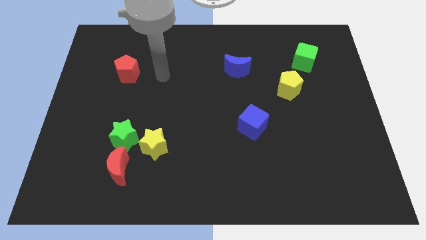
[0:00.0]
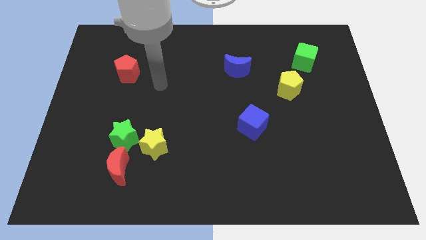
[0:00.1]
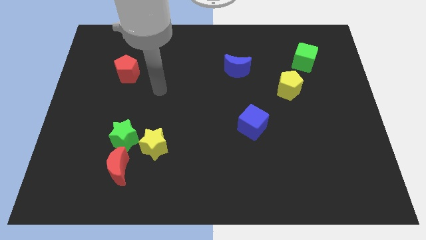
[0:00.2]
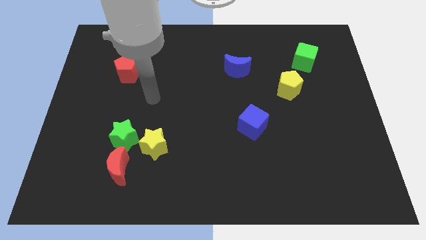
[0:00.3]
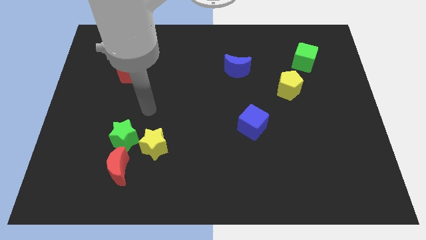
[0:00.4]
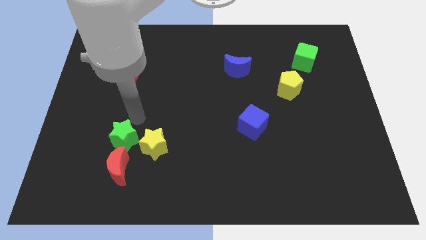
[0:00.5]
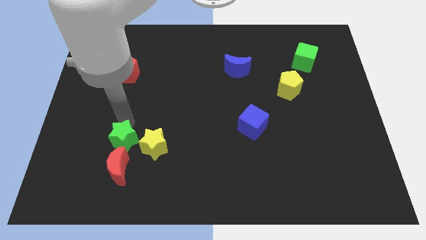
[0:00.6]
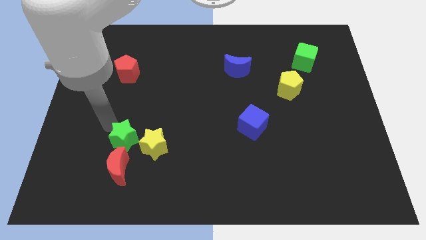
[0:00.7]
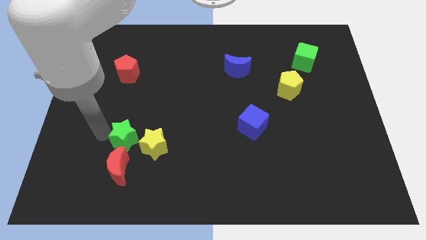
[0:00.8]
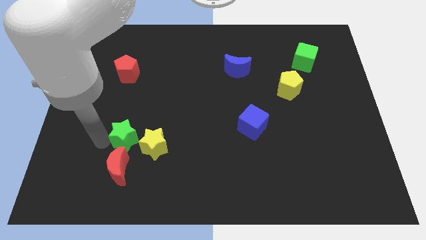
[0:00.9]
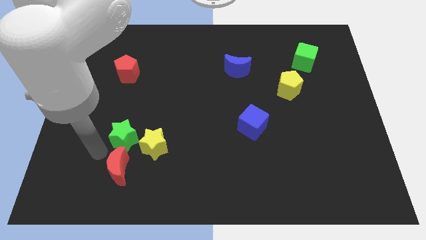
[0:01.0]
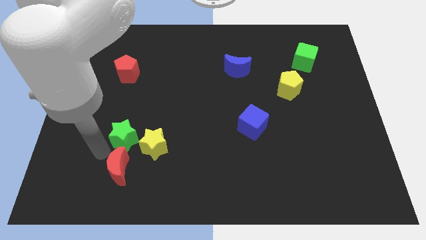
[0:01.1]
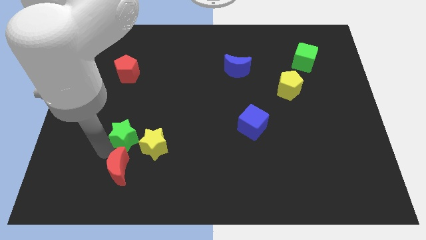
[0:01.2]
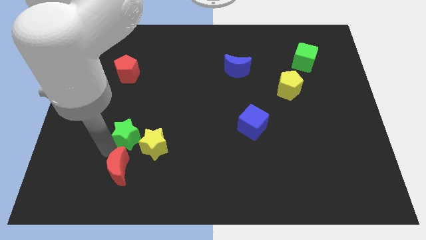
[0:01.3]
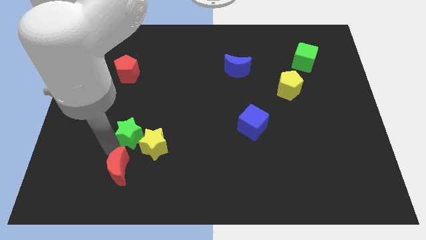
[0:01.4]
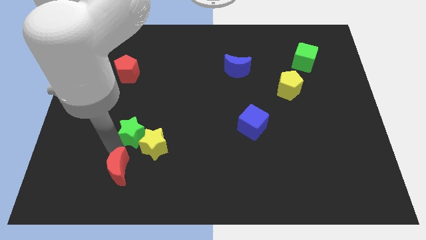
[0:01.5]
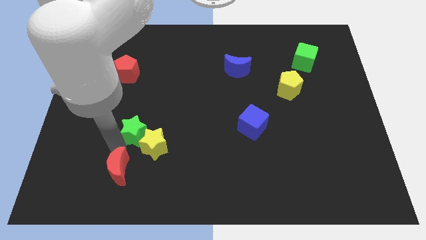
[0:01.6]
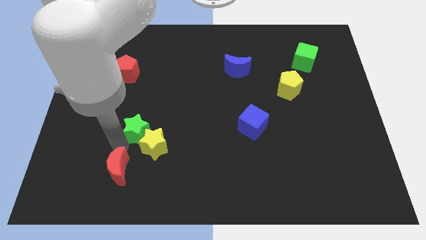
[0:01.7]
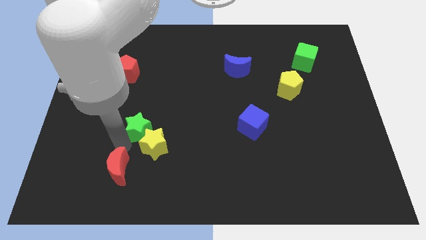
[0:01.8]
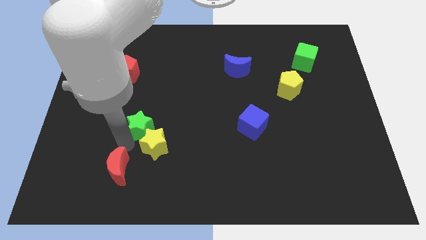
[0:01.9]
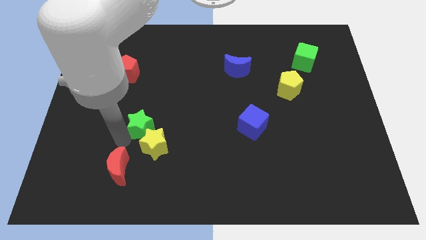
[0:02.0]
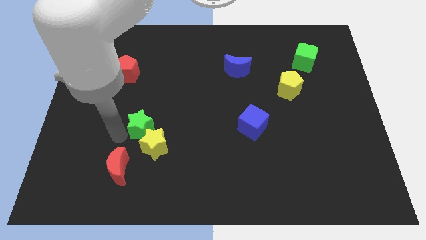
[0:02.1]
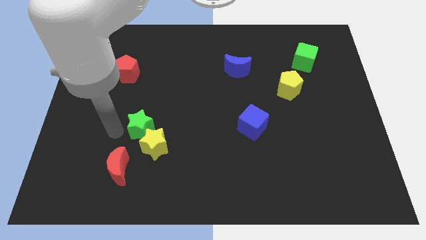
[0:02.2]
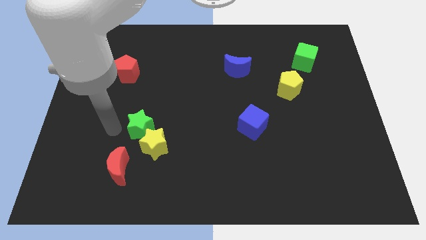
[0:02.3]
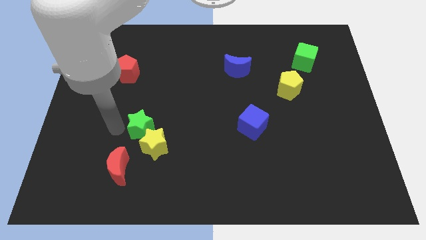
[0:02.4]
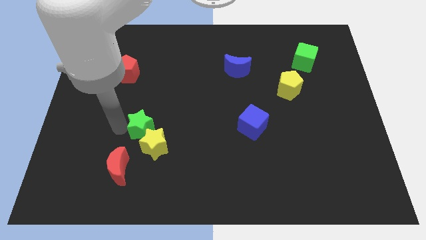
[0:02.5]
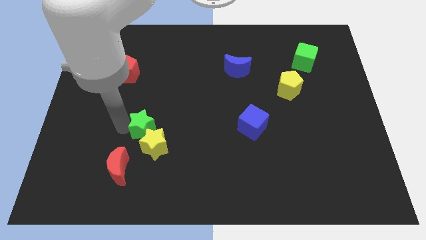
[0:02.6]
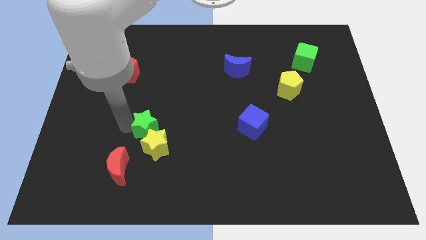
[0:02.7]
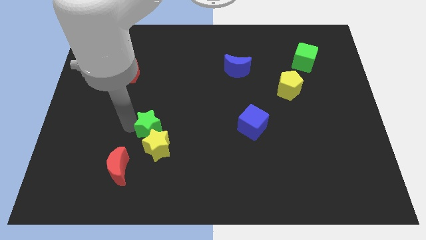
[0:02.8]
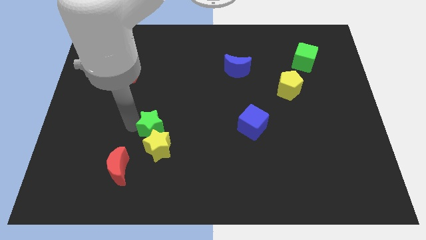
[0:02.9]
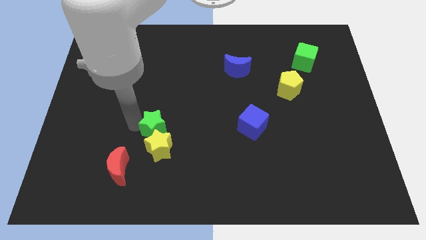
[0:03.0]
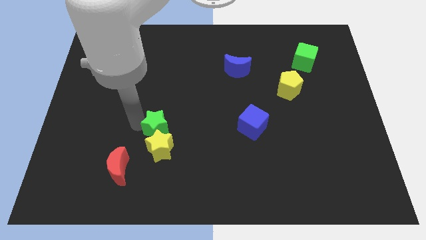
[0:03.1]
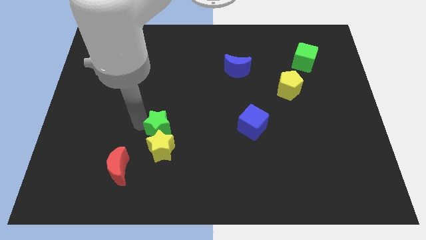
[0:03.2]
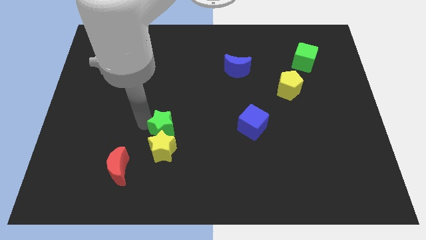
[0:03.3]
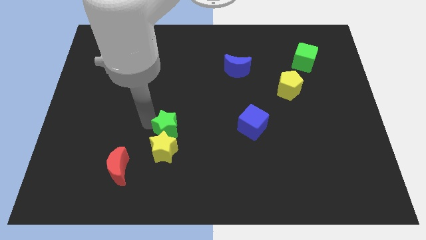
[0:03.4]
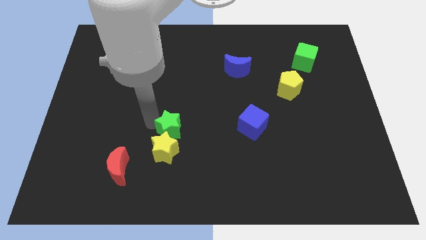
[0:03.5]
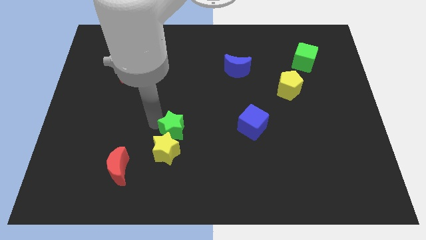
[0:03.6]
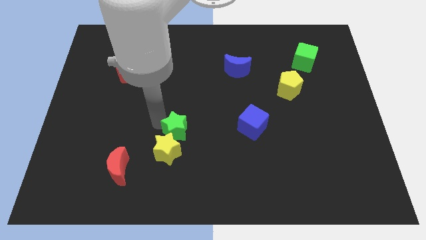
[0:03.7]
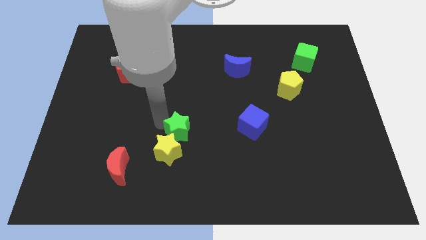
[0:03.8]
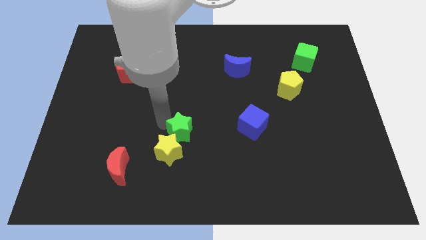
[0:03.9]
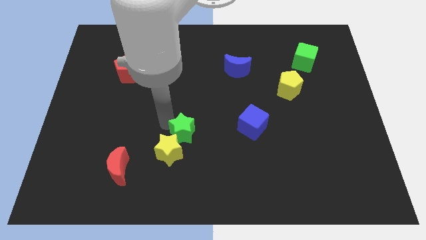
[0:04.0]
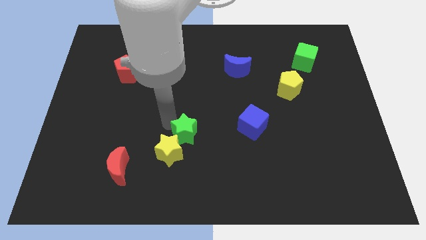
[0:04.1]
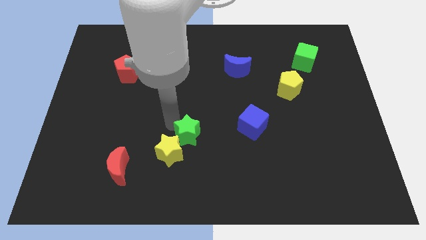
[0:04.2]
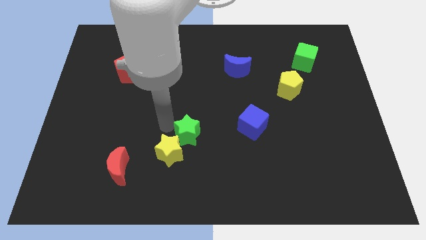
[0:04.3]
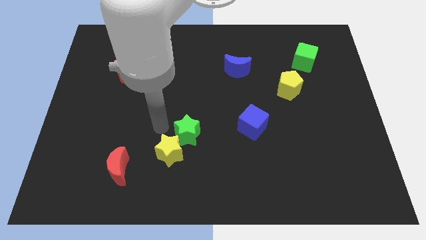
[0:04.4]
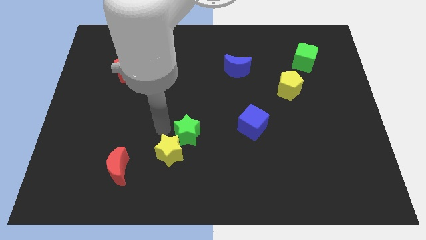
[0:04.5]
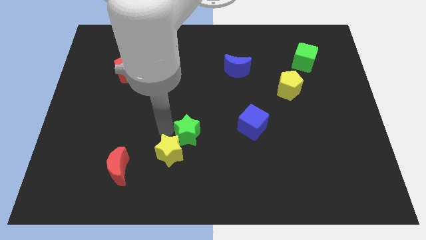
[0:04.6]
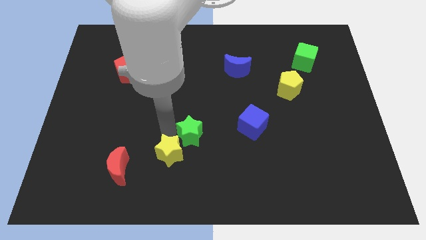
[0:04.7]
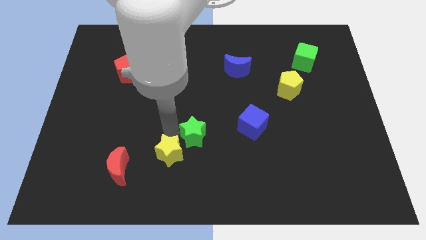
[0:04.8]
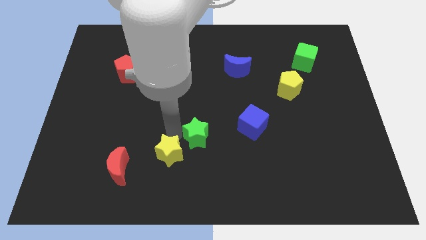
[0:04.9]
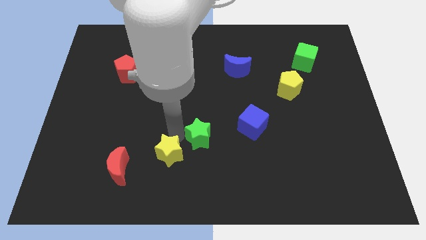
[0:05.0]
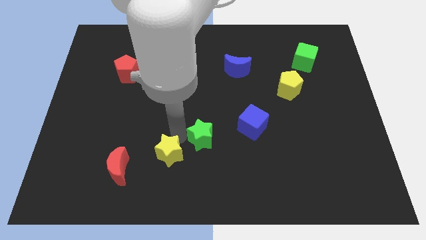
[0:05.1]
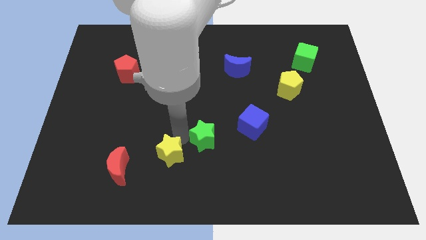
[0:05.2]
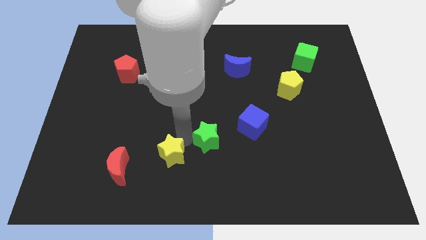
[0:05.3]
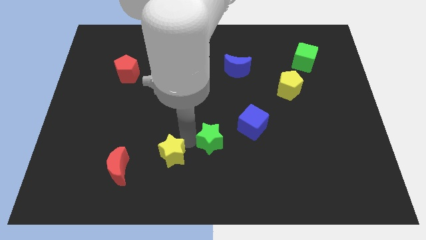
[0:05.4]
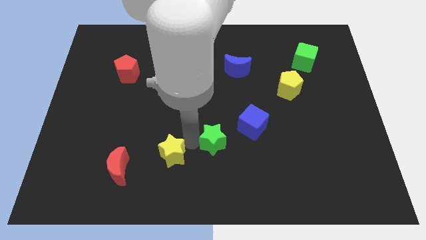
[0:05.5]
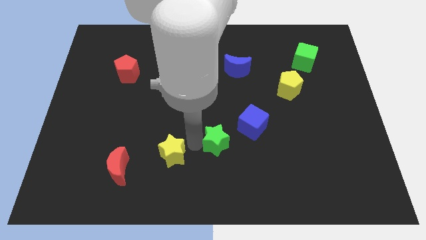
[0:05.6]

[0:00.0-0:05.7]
move the green star right

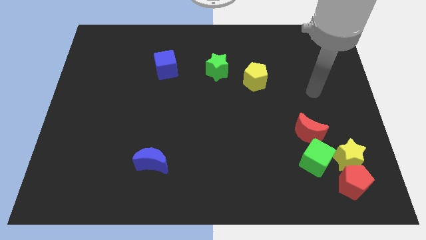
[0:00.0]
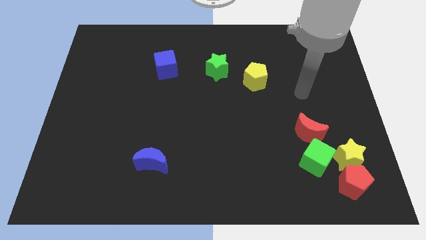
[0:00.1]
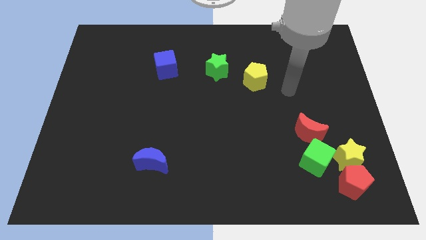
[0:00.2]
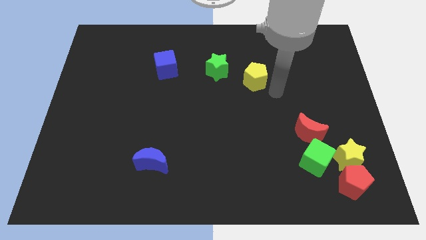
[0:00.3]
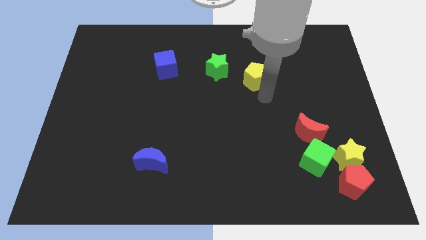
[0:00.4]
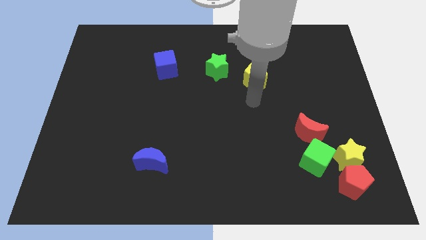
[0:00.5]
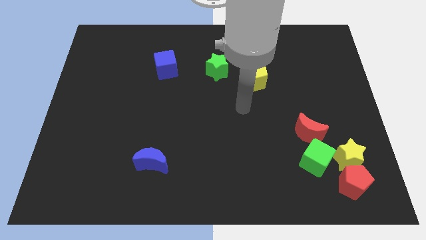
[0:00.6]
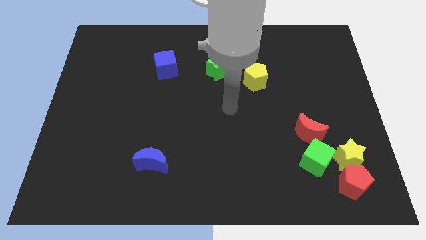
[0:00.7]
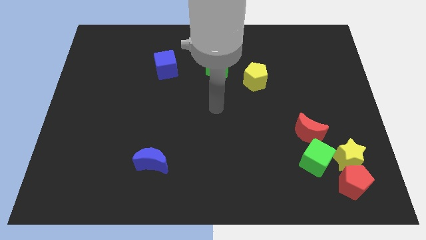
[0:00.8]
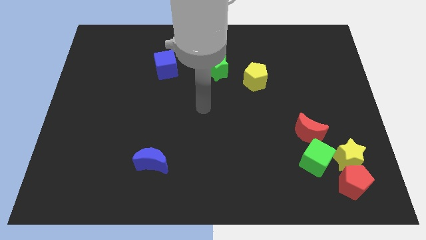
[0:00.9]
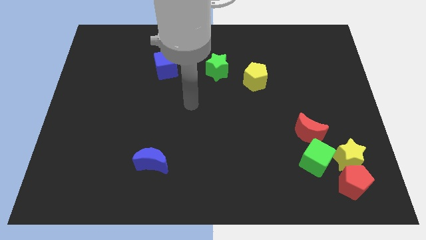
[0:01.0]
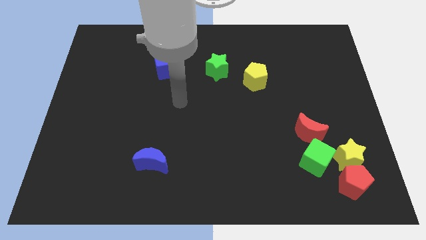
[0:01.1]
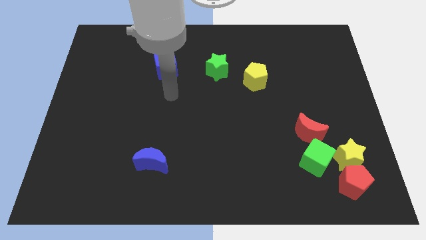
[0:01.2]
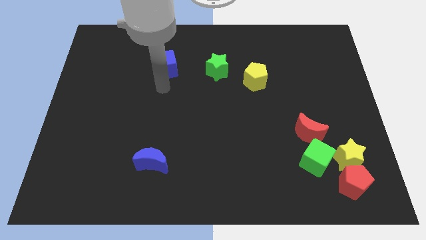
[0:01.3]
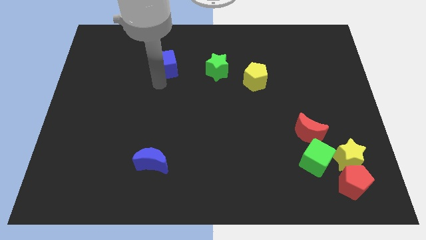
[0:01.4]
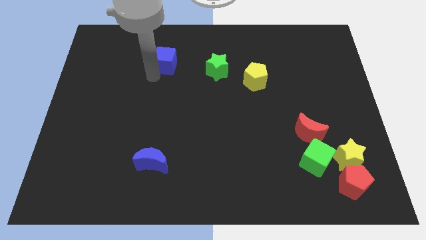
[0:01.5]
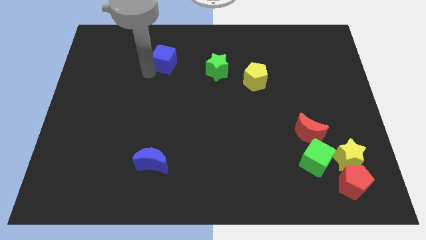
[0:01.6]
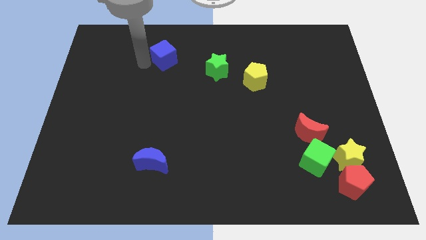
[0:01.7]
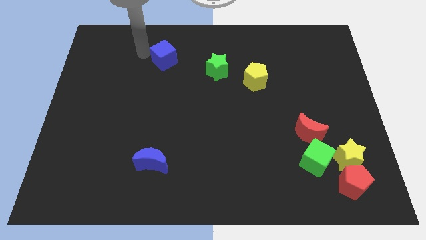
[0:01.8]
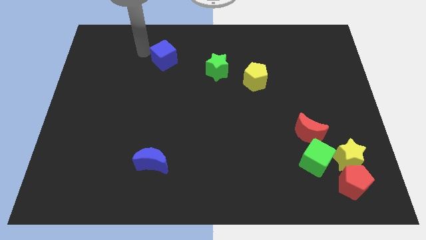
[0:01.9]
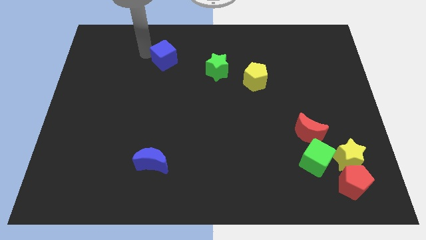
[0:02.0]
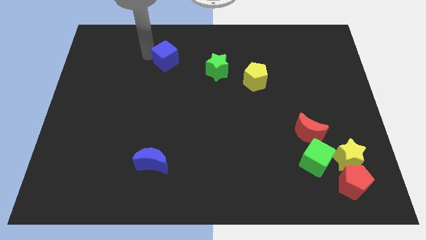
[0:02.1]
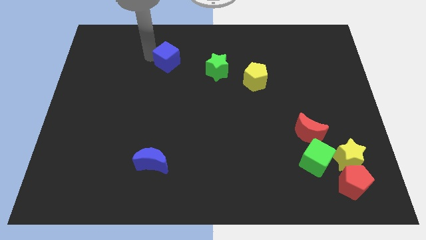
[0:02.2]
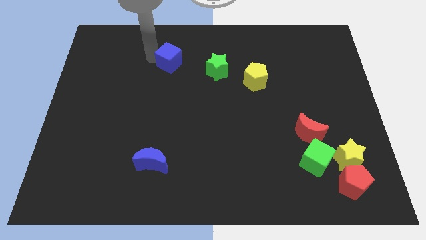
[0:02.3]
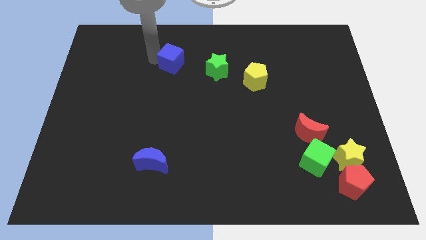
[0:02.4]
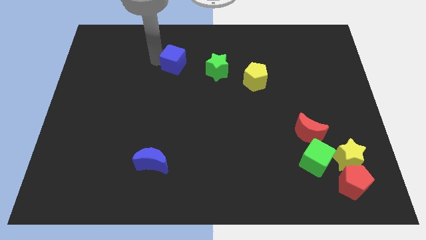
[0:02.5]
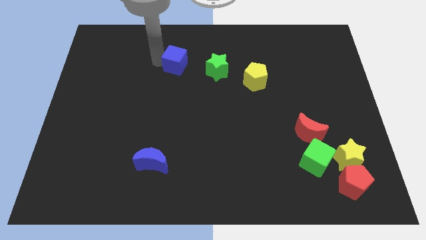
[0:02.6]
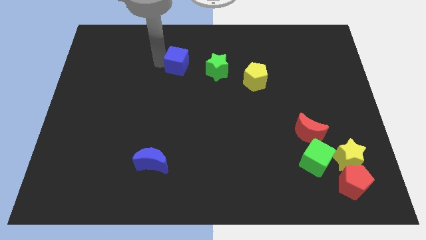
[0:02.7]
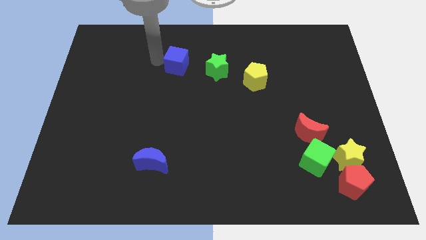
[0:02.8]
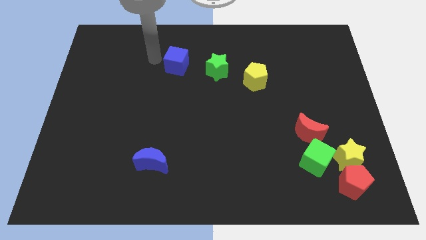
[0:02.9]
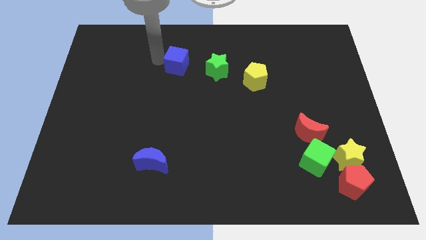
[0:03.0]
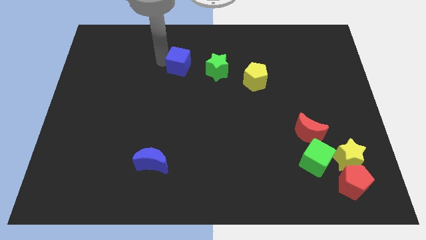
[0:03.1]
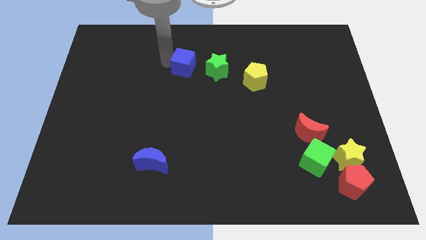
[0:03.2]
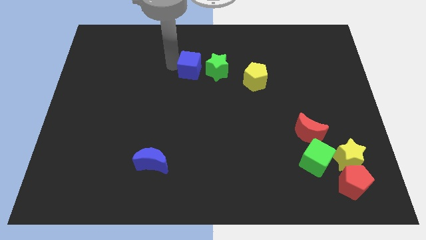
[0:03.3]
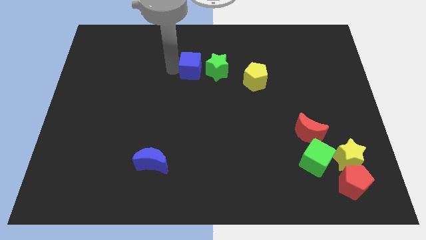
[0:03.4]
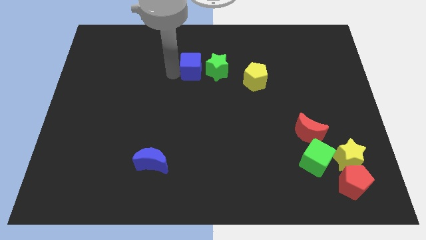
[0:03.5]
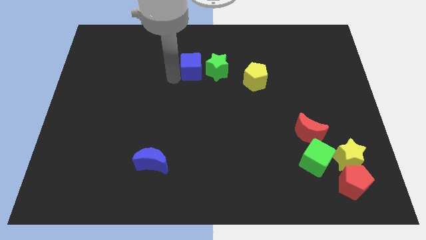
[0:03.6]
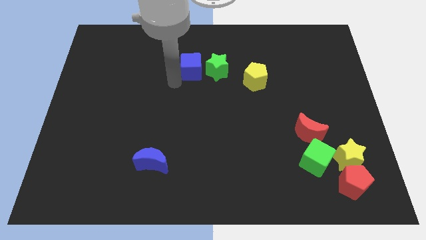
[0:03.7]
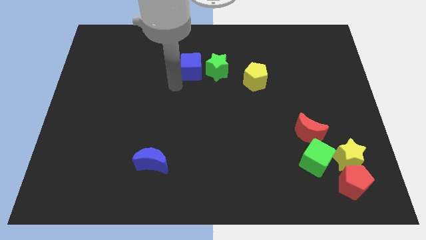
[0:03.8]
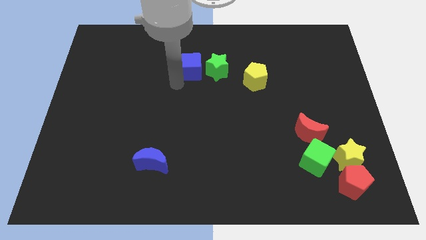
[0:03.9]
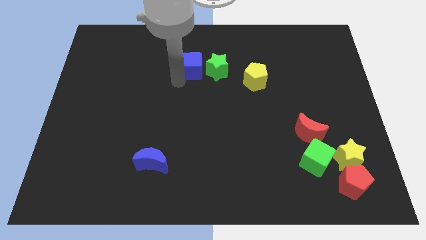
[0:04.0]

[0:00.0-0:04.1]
slide the blue cube to the right a little bit
